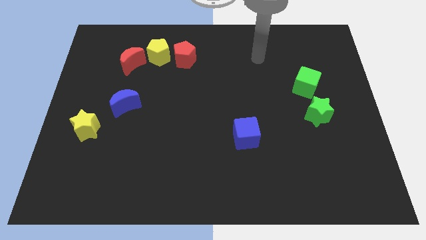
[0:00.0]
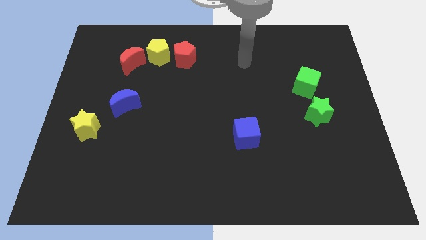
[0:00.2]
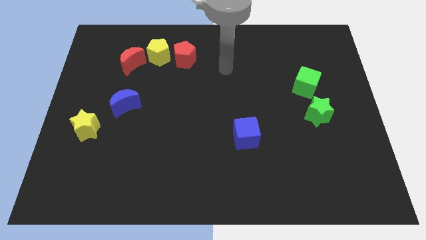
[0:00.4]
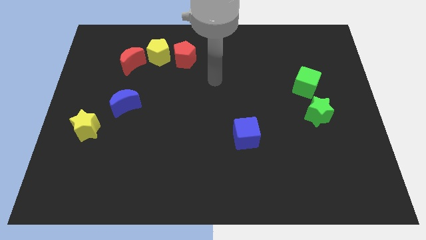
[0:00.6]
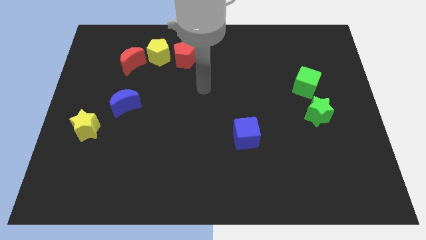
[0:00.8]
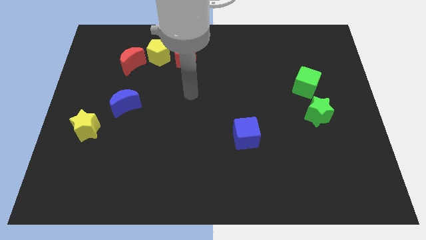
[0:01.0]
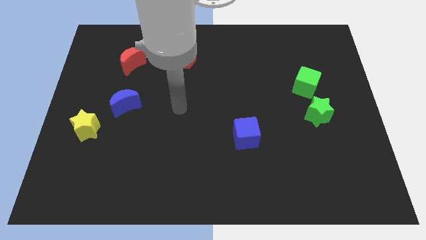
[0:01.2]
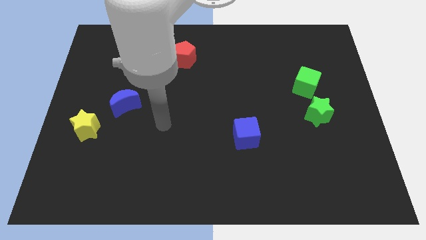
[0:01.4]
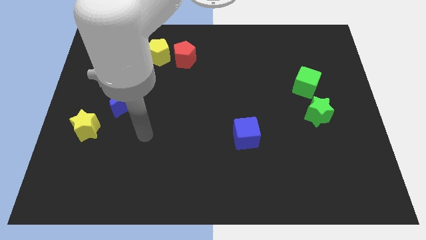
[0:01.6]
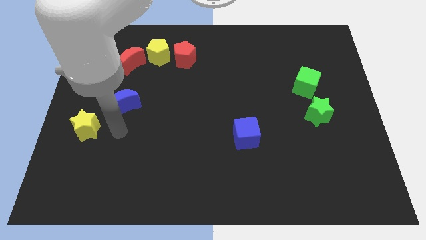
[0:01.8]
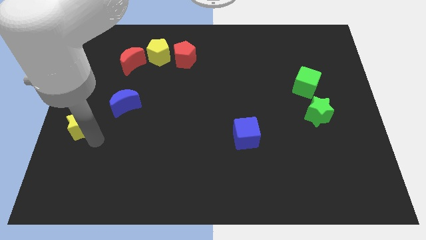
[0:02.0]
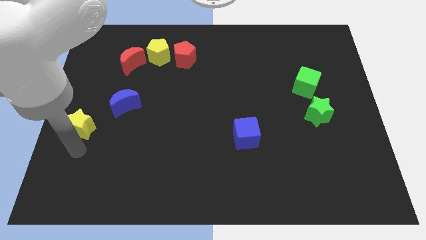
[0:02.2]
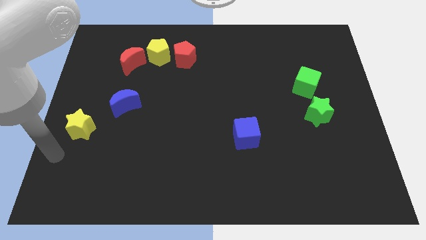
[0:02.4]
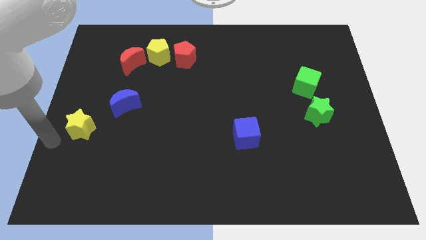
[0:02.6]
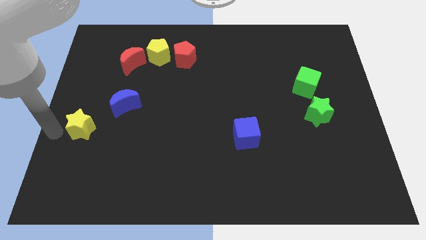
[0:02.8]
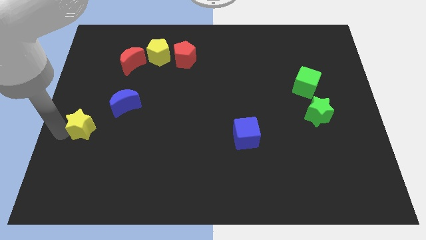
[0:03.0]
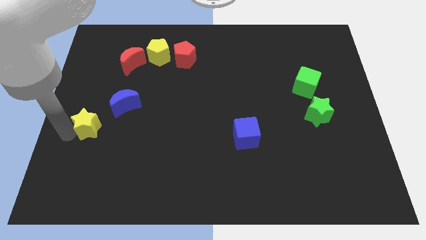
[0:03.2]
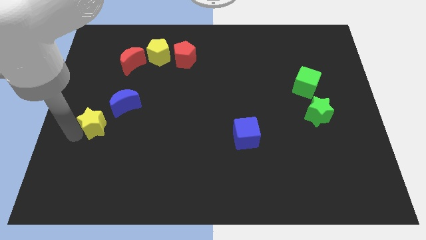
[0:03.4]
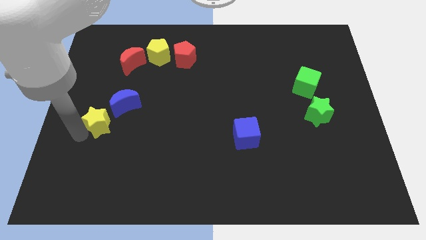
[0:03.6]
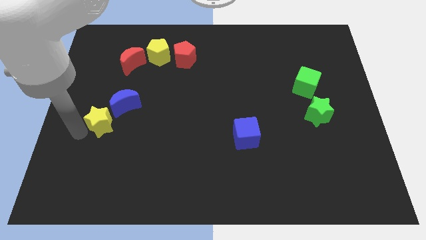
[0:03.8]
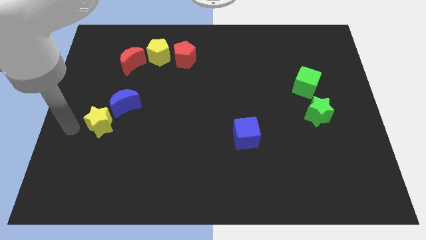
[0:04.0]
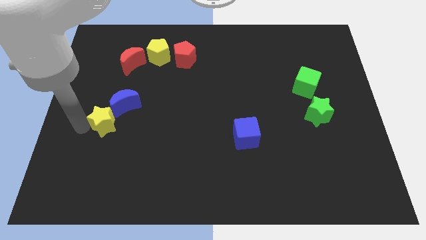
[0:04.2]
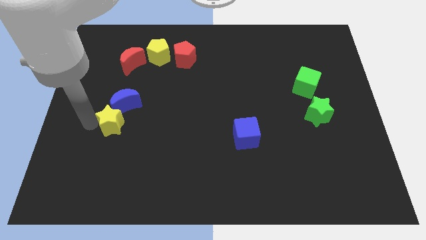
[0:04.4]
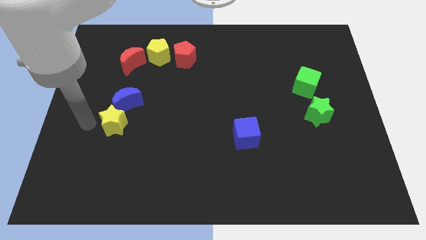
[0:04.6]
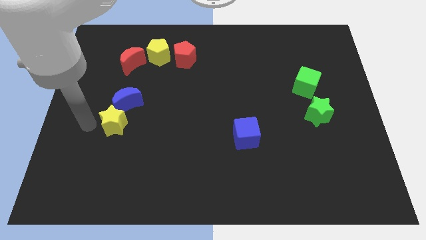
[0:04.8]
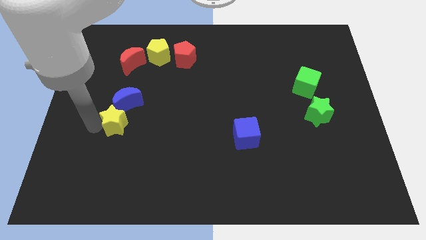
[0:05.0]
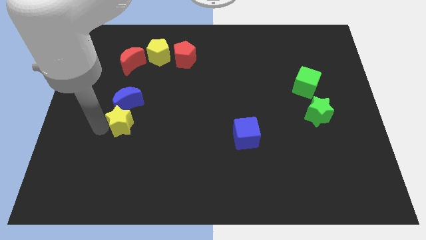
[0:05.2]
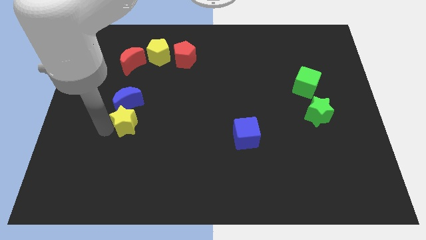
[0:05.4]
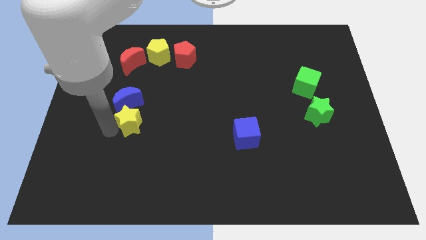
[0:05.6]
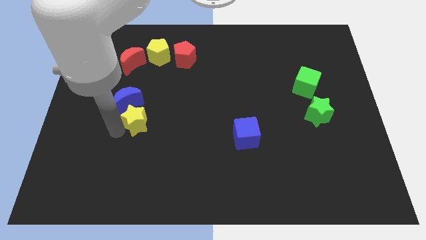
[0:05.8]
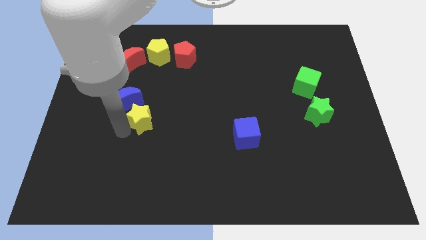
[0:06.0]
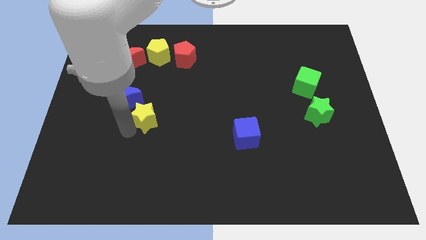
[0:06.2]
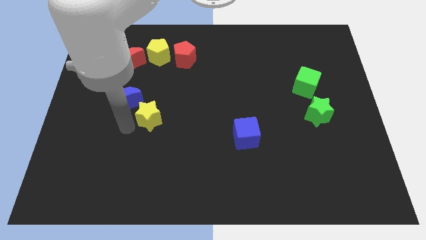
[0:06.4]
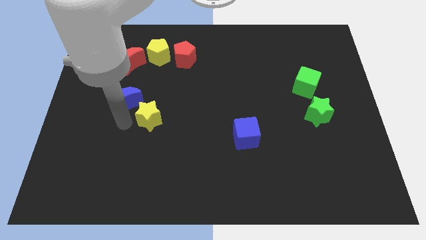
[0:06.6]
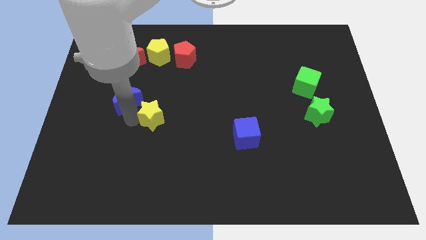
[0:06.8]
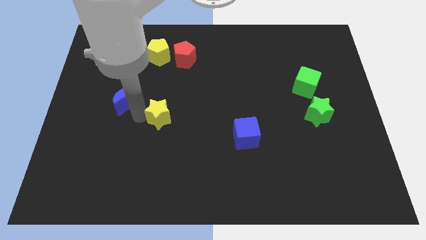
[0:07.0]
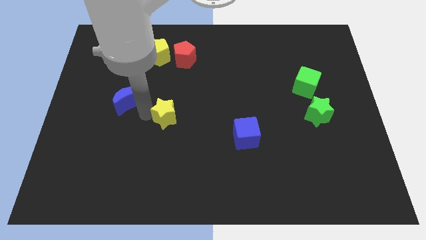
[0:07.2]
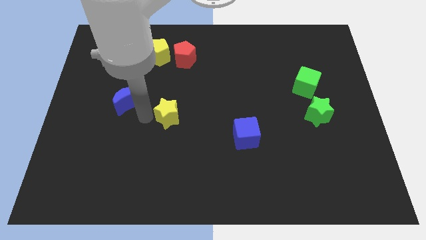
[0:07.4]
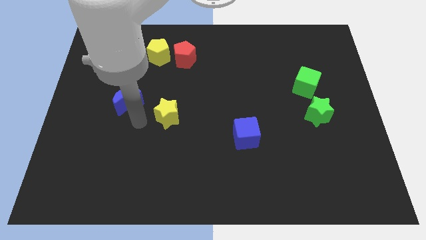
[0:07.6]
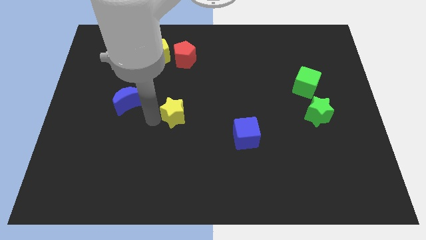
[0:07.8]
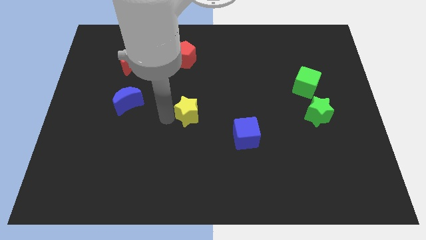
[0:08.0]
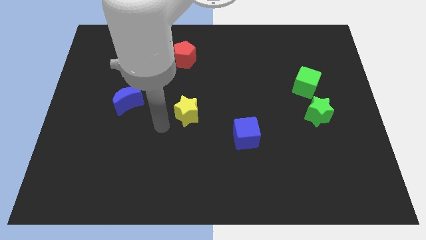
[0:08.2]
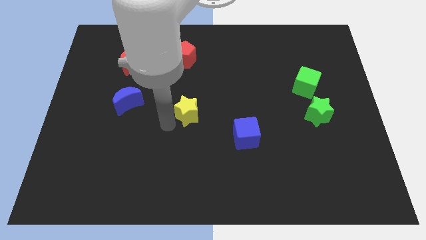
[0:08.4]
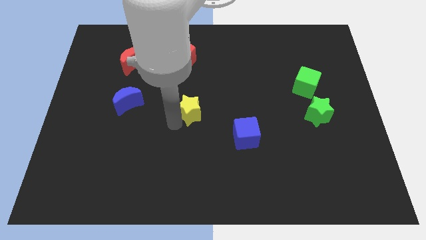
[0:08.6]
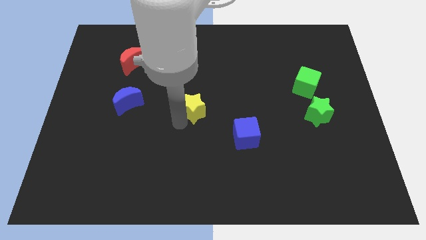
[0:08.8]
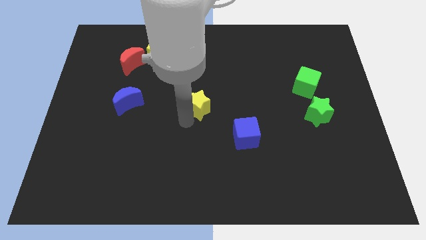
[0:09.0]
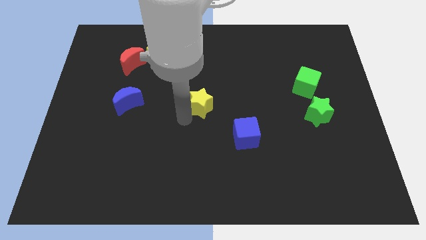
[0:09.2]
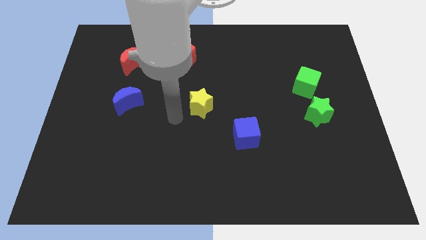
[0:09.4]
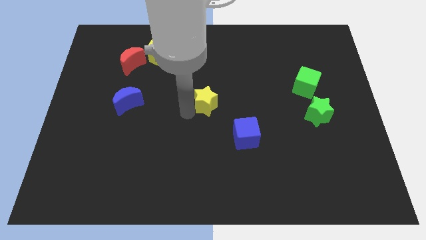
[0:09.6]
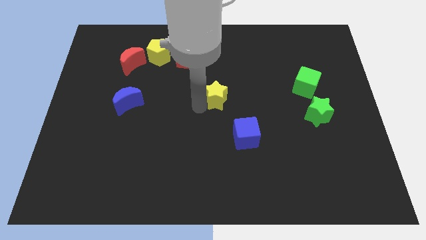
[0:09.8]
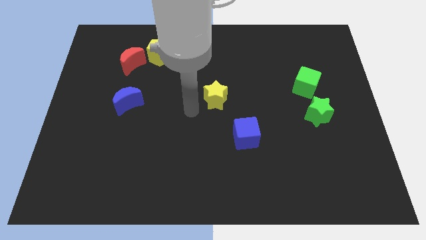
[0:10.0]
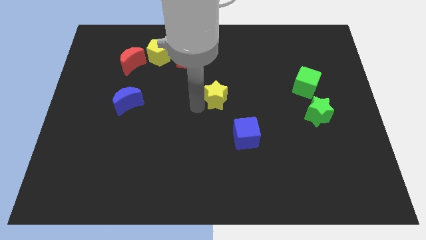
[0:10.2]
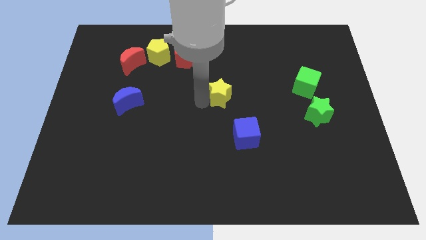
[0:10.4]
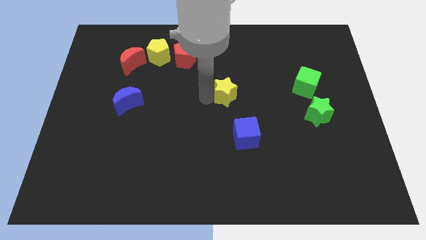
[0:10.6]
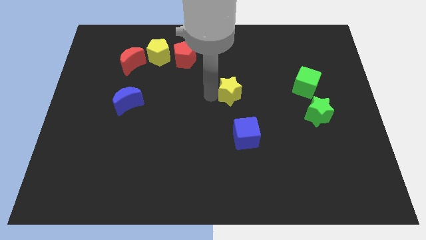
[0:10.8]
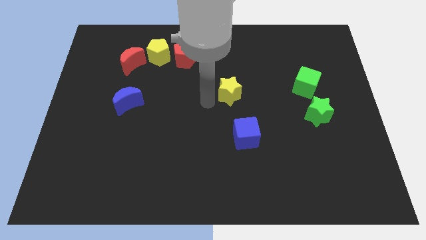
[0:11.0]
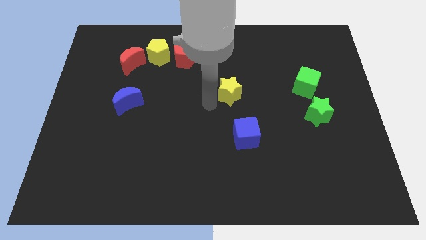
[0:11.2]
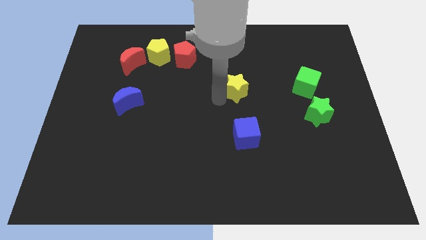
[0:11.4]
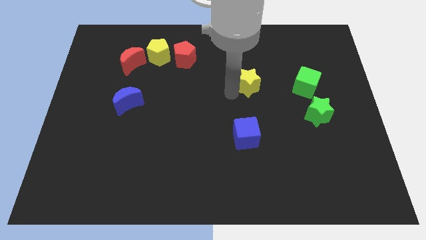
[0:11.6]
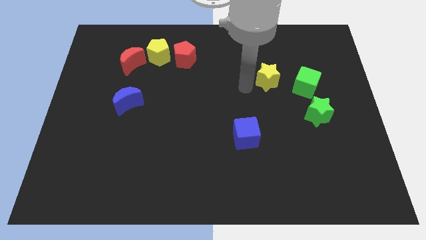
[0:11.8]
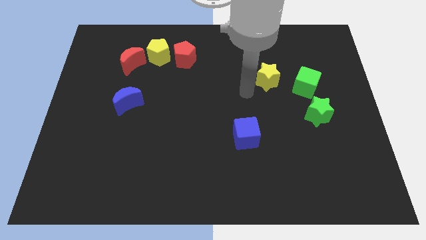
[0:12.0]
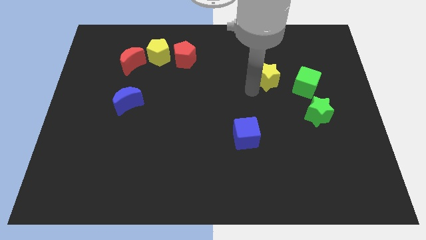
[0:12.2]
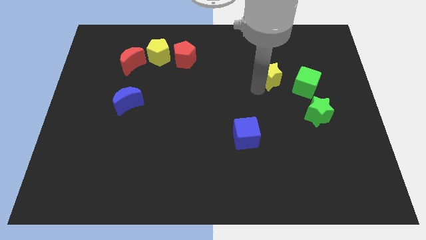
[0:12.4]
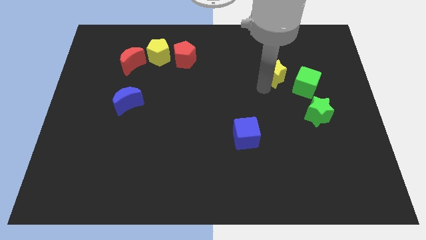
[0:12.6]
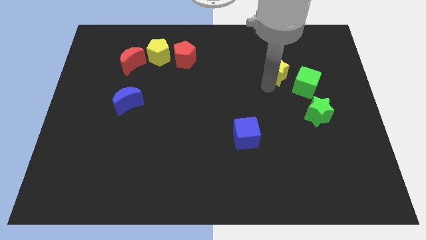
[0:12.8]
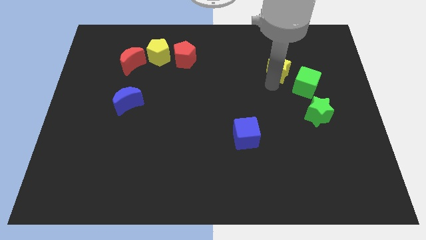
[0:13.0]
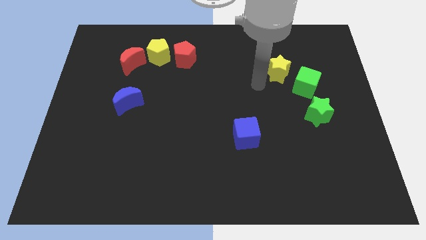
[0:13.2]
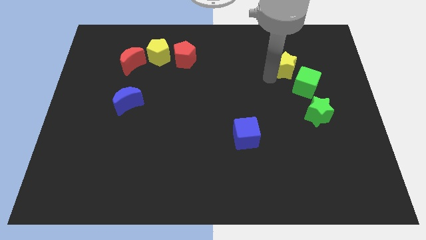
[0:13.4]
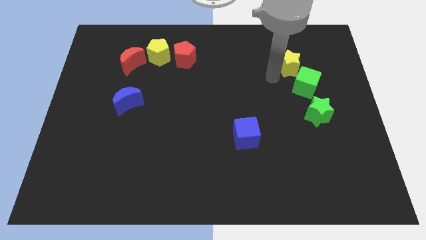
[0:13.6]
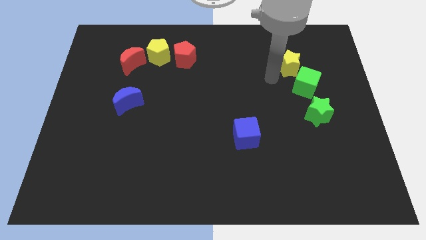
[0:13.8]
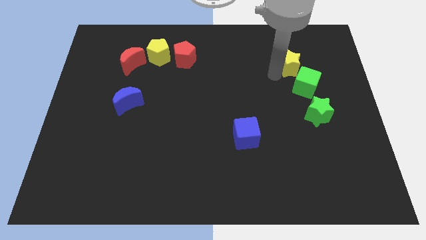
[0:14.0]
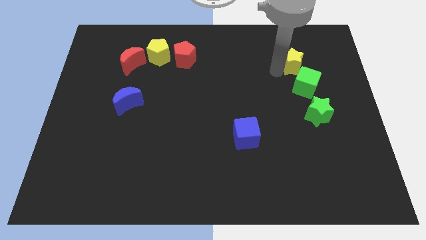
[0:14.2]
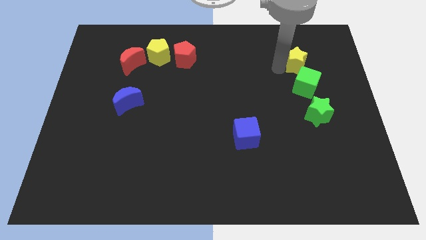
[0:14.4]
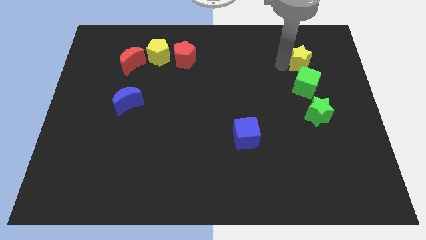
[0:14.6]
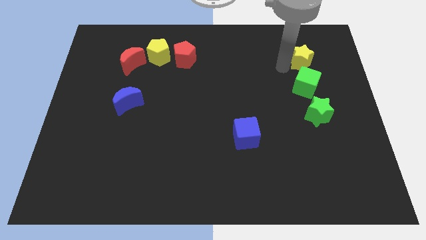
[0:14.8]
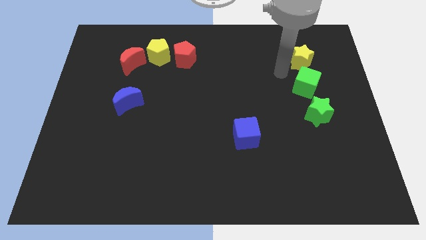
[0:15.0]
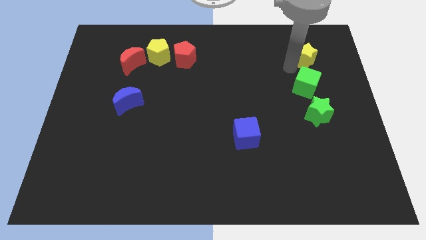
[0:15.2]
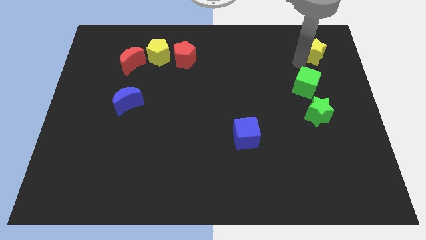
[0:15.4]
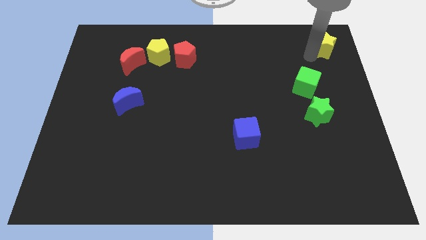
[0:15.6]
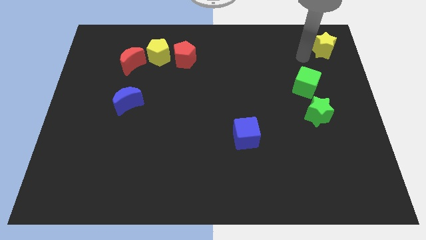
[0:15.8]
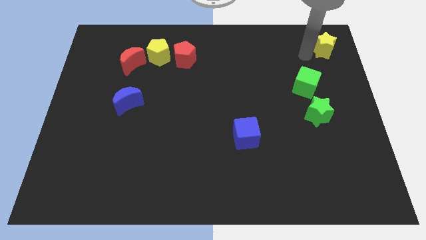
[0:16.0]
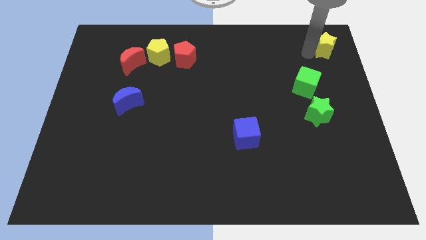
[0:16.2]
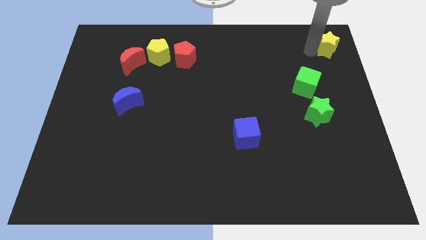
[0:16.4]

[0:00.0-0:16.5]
slide the yellow star to the upper right corner
